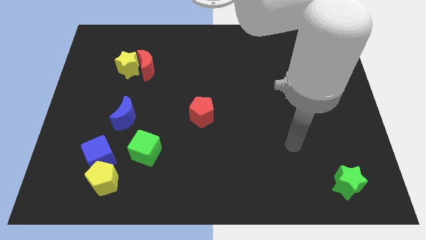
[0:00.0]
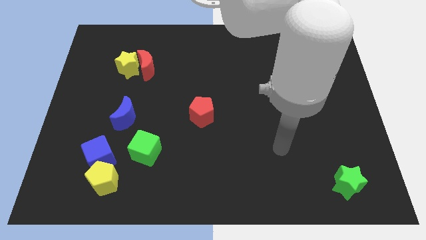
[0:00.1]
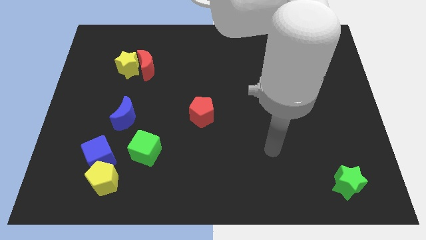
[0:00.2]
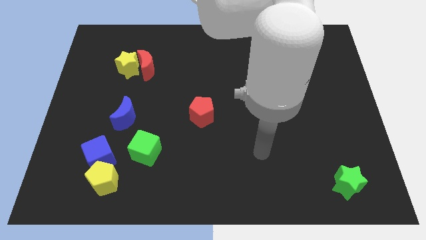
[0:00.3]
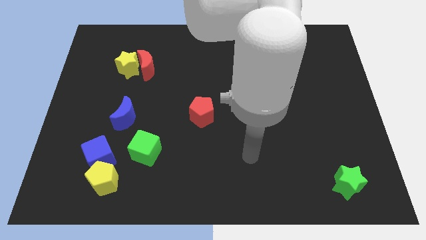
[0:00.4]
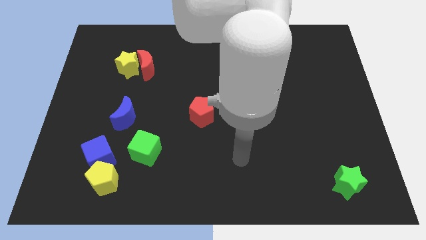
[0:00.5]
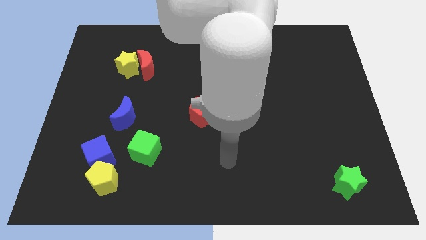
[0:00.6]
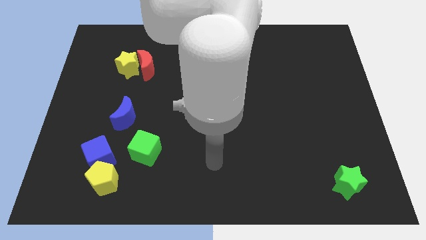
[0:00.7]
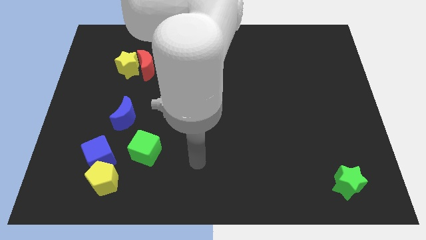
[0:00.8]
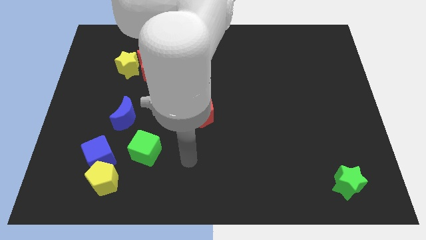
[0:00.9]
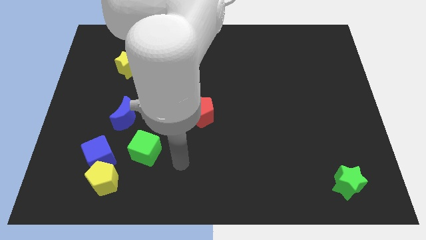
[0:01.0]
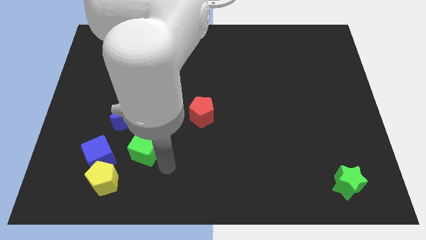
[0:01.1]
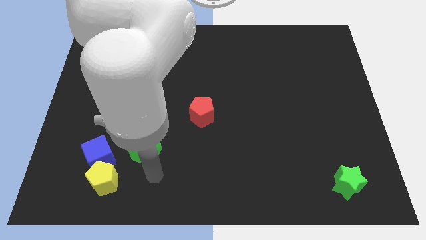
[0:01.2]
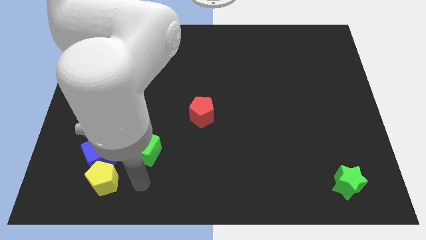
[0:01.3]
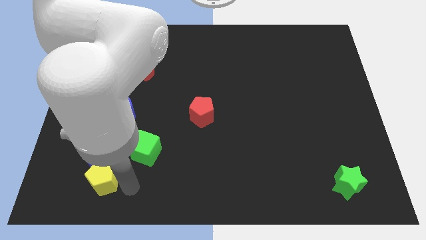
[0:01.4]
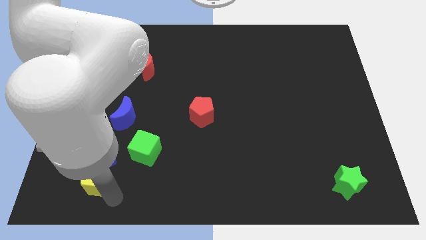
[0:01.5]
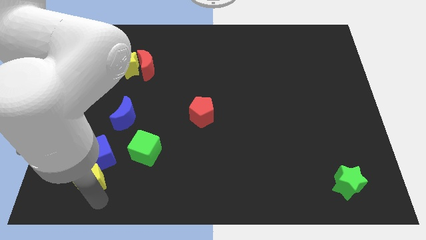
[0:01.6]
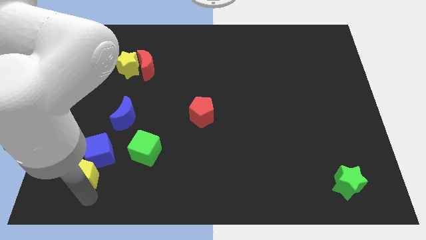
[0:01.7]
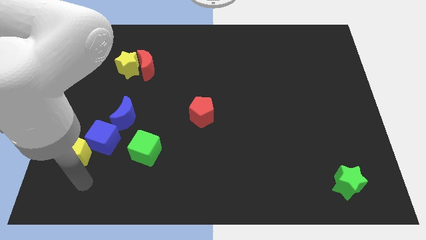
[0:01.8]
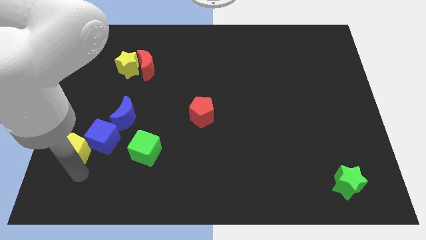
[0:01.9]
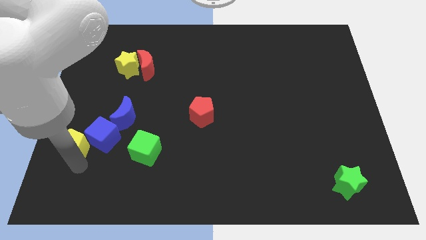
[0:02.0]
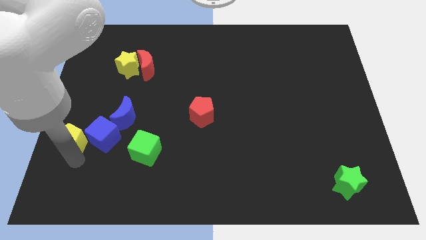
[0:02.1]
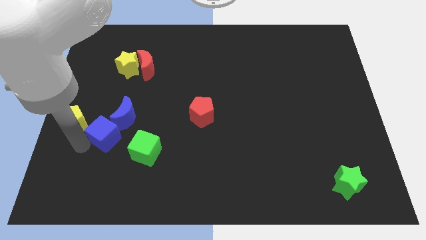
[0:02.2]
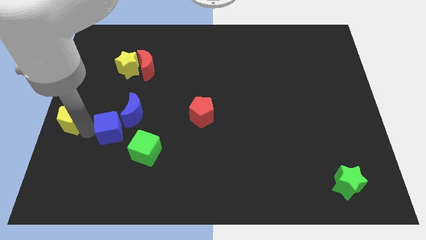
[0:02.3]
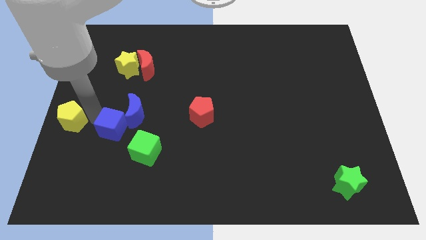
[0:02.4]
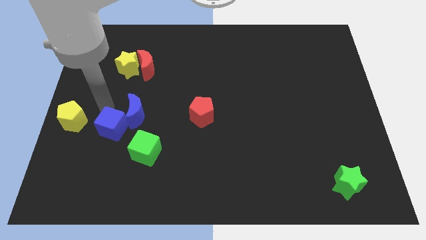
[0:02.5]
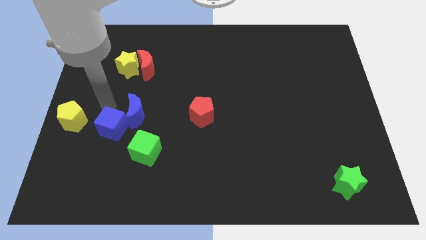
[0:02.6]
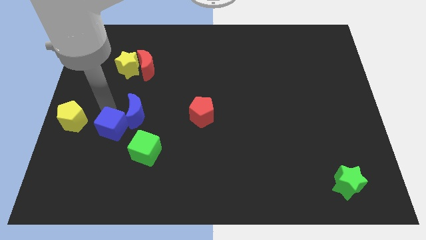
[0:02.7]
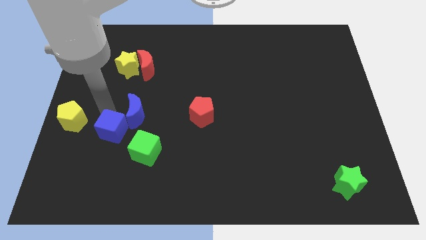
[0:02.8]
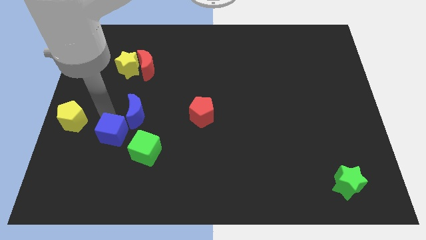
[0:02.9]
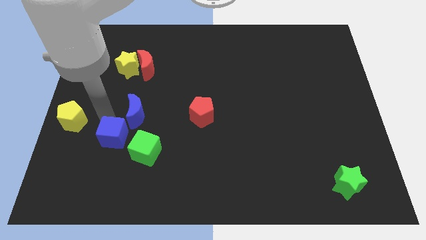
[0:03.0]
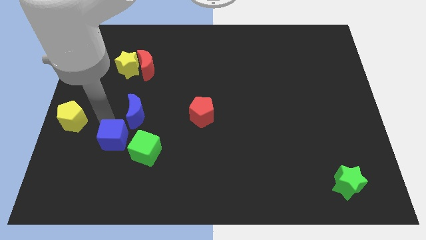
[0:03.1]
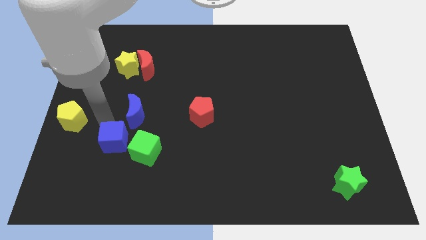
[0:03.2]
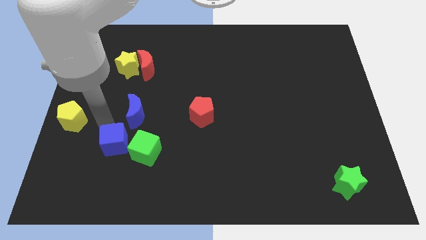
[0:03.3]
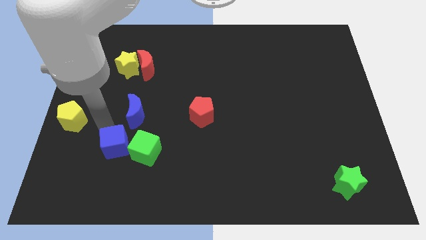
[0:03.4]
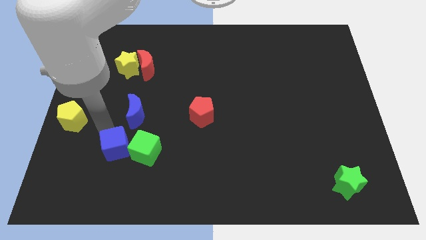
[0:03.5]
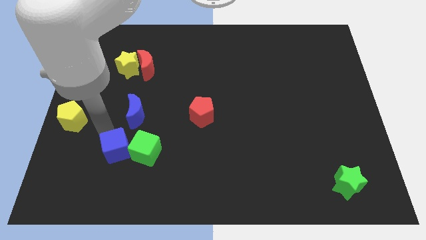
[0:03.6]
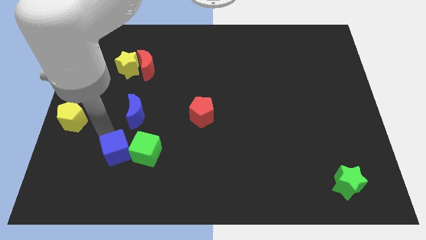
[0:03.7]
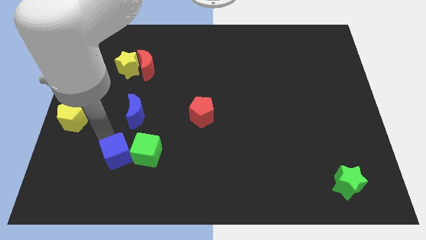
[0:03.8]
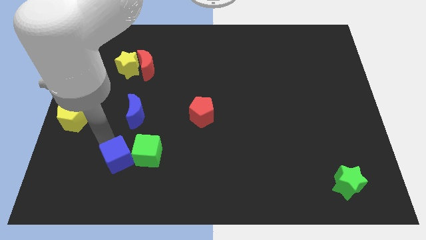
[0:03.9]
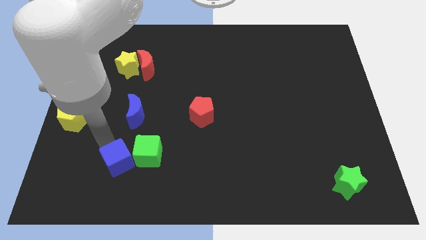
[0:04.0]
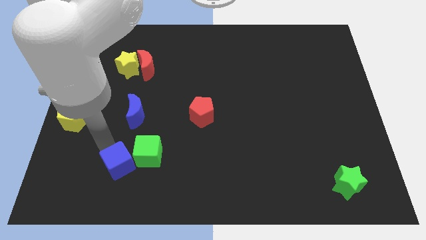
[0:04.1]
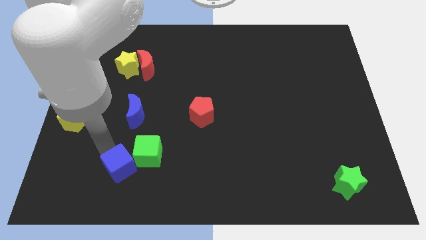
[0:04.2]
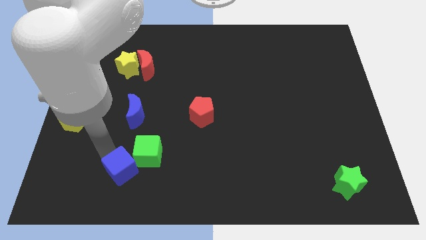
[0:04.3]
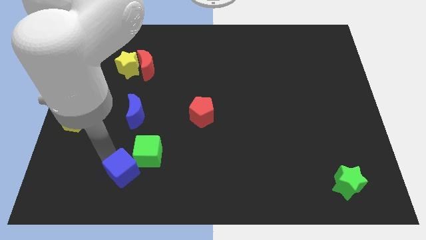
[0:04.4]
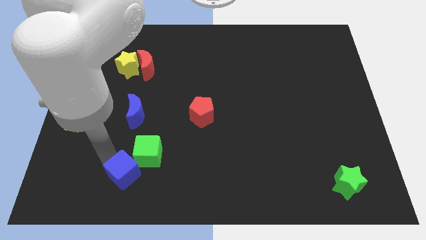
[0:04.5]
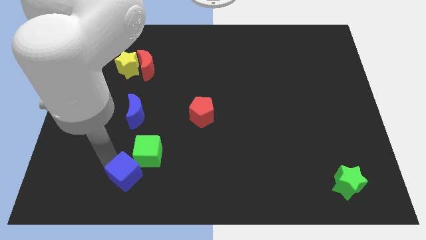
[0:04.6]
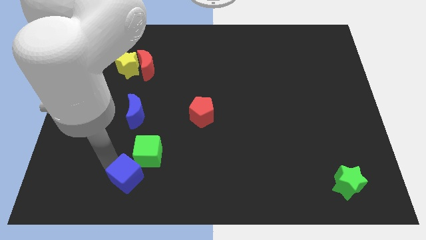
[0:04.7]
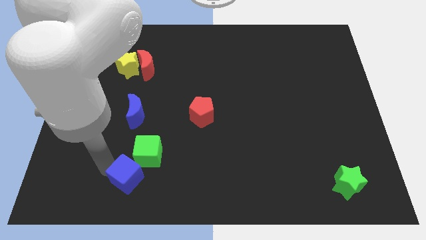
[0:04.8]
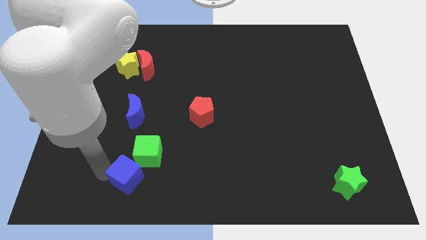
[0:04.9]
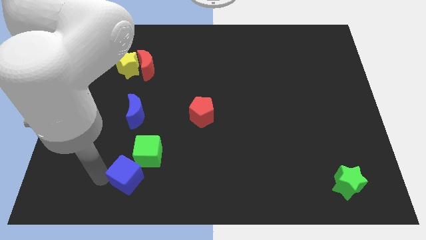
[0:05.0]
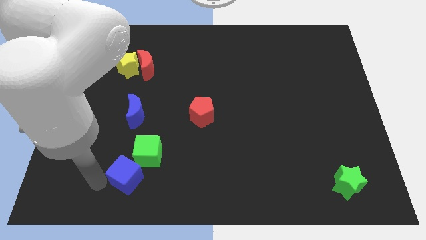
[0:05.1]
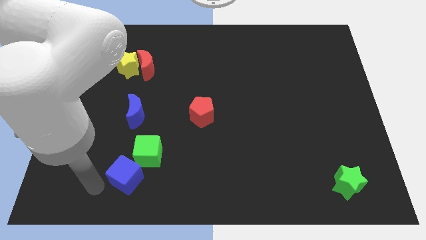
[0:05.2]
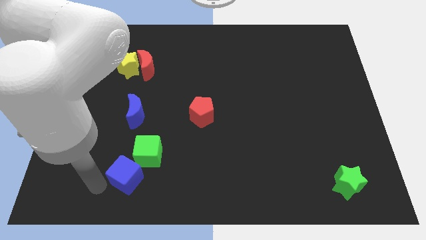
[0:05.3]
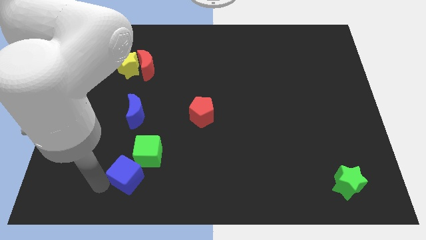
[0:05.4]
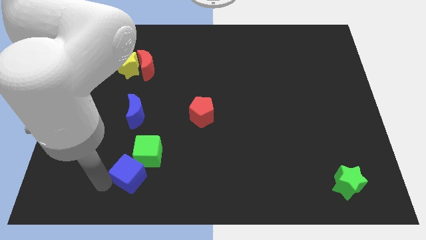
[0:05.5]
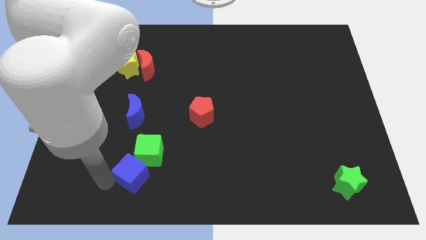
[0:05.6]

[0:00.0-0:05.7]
slightly move the blue cube right

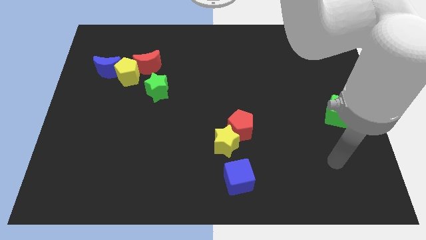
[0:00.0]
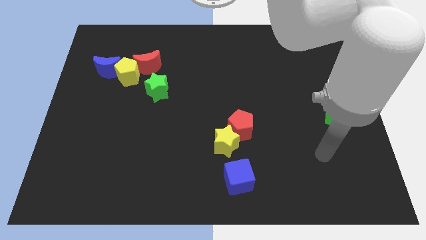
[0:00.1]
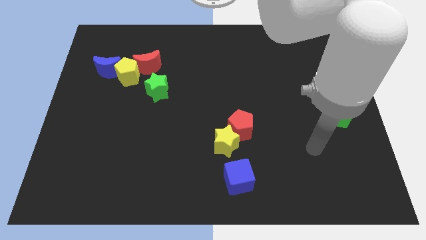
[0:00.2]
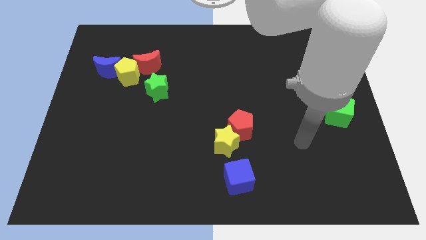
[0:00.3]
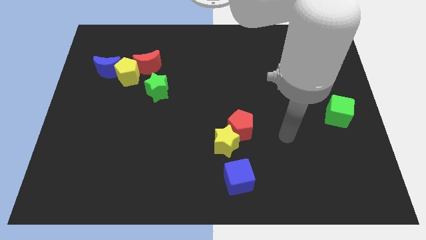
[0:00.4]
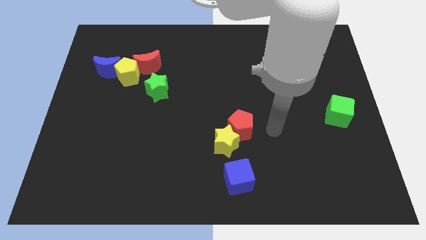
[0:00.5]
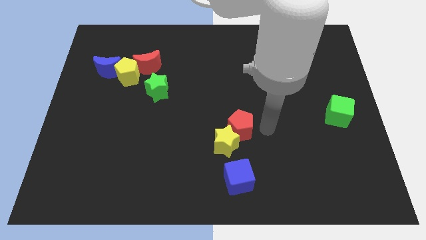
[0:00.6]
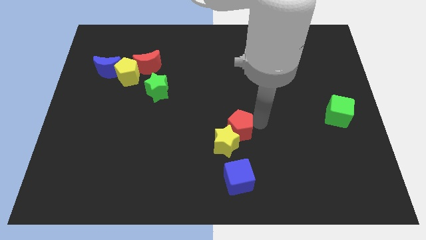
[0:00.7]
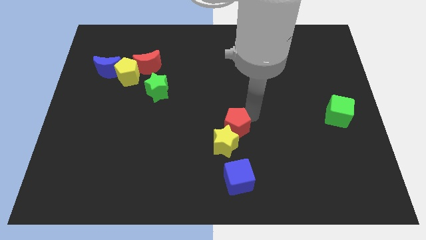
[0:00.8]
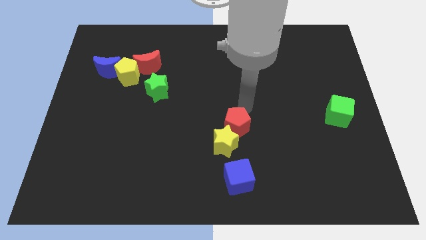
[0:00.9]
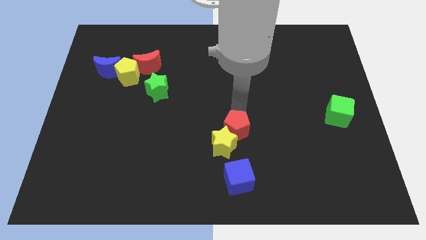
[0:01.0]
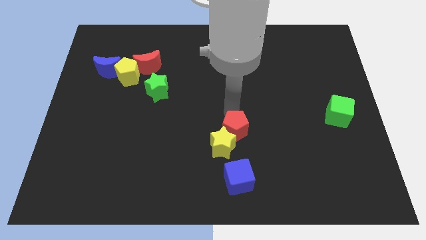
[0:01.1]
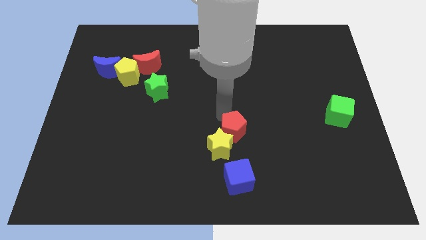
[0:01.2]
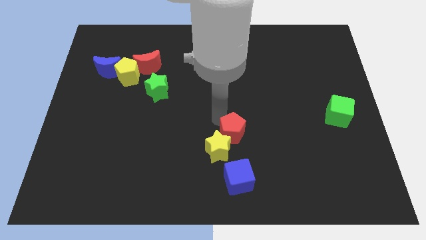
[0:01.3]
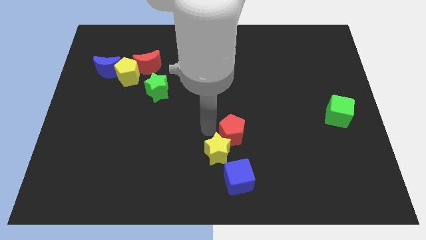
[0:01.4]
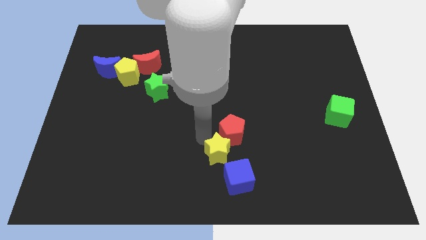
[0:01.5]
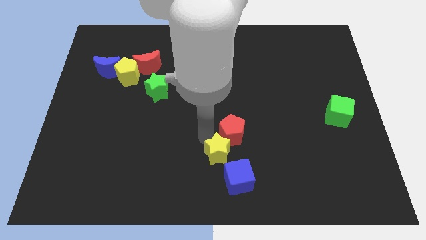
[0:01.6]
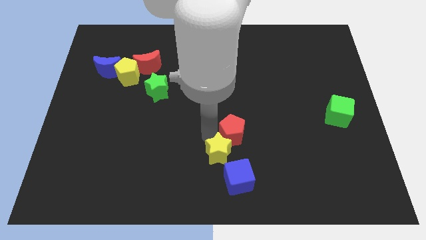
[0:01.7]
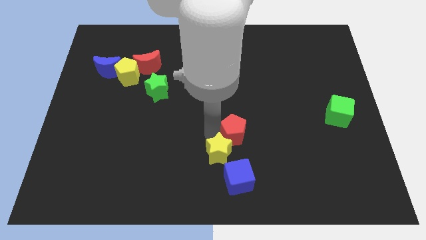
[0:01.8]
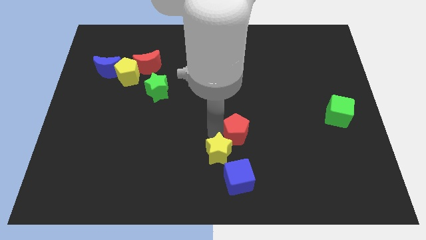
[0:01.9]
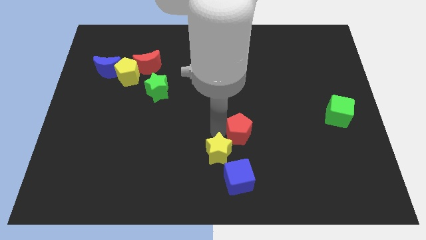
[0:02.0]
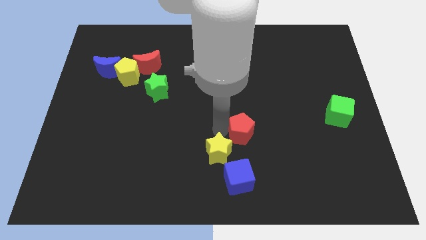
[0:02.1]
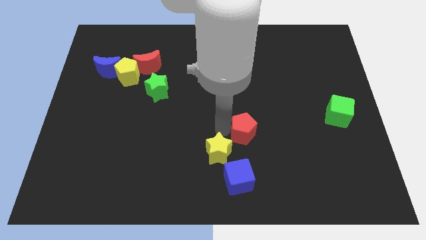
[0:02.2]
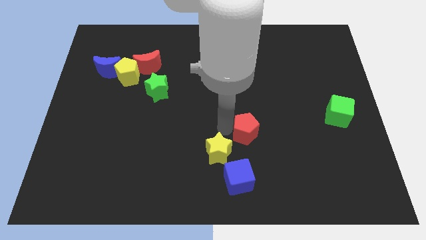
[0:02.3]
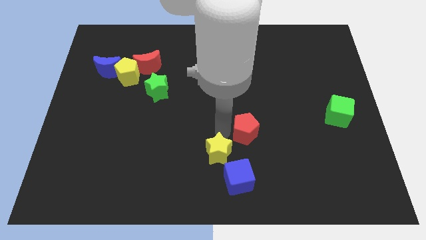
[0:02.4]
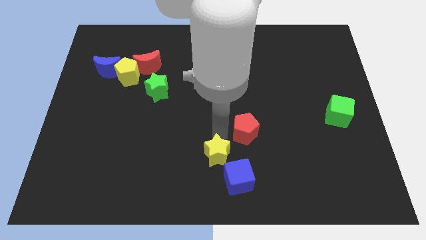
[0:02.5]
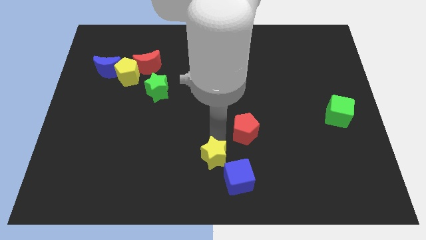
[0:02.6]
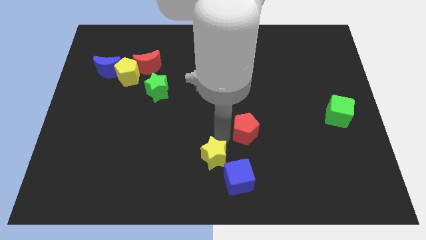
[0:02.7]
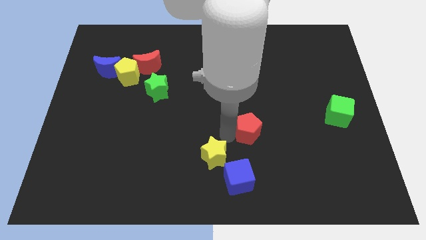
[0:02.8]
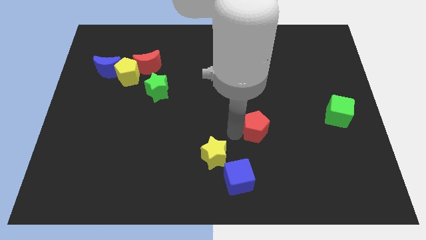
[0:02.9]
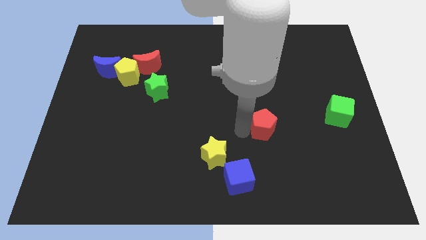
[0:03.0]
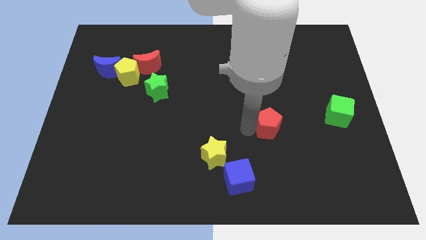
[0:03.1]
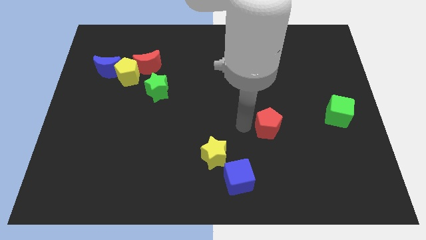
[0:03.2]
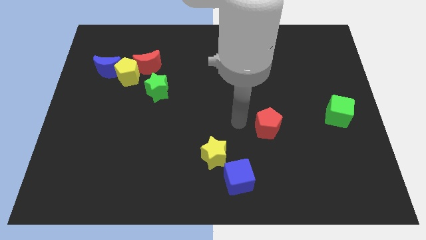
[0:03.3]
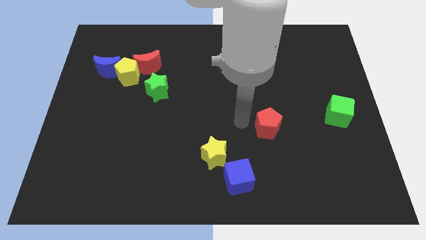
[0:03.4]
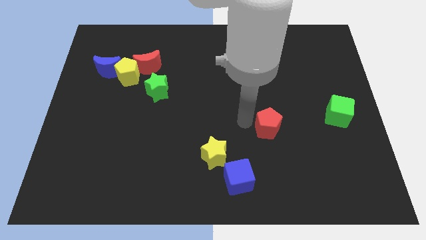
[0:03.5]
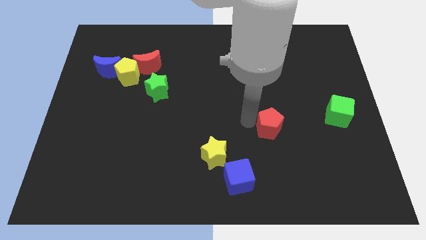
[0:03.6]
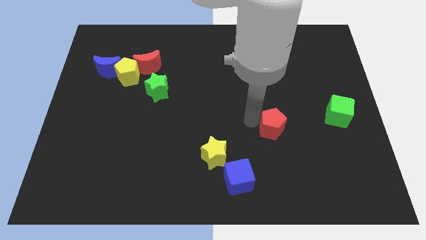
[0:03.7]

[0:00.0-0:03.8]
push the red pentagon to the right a little bit
